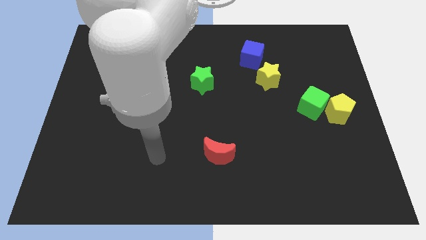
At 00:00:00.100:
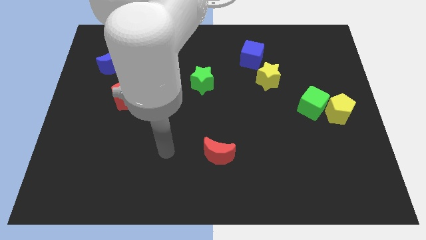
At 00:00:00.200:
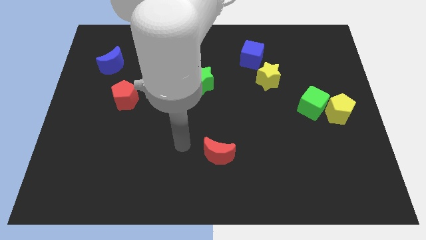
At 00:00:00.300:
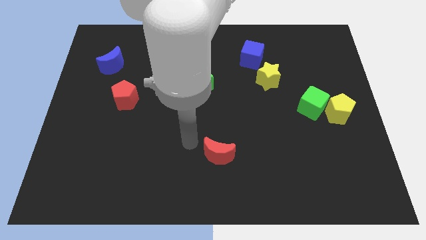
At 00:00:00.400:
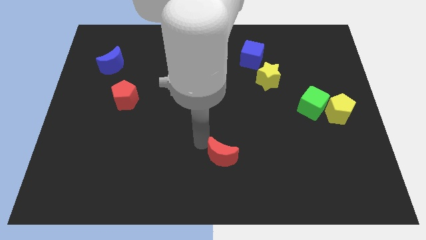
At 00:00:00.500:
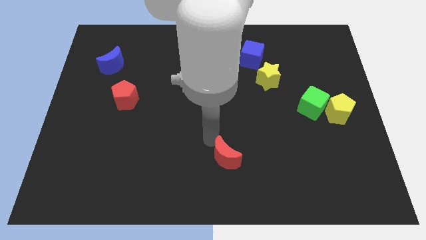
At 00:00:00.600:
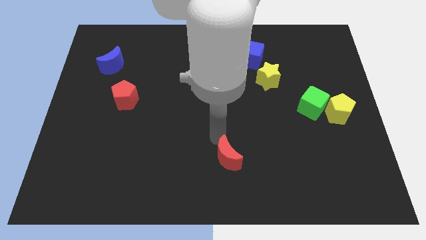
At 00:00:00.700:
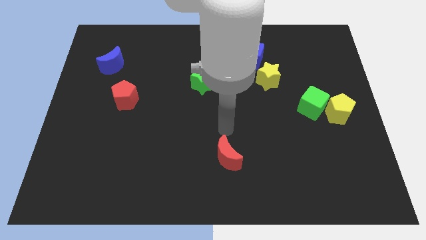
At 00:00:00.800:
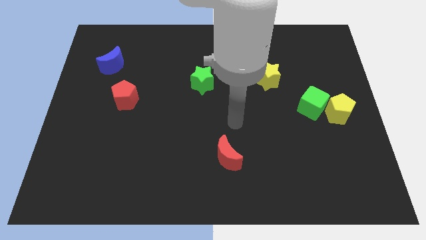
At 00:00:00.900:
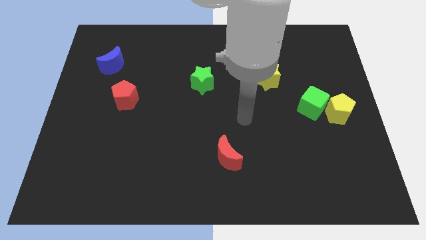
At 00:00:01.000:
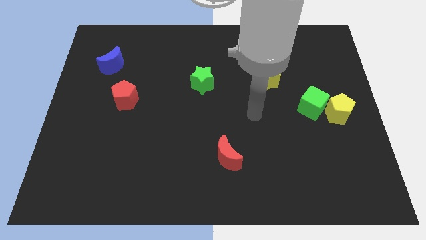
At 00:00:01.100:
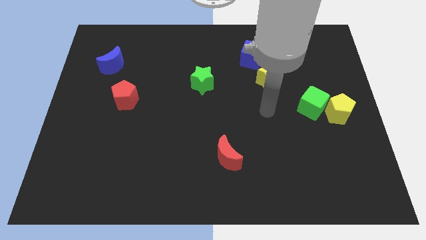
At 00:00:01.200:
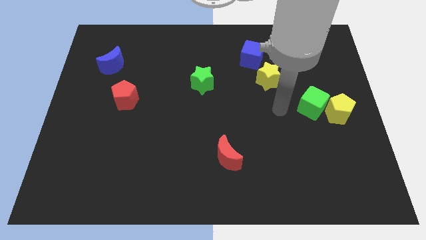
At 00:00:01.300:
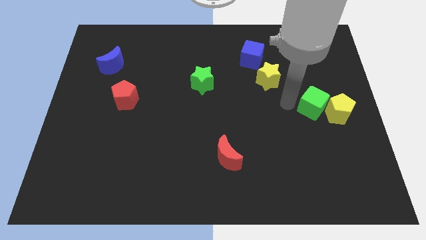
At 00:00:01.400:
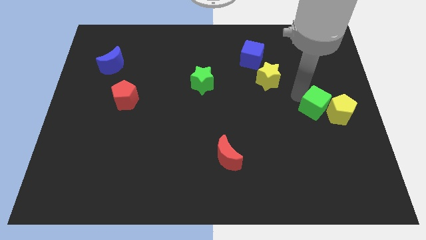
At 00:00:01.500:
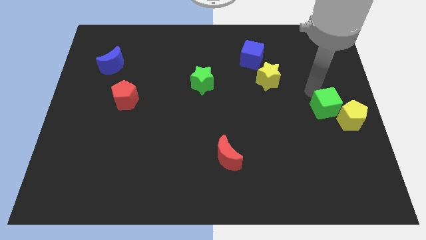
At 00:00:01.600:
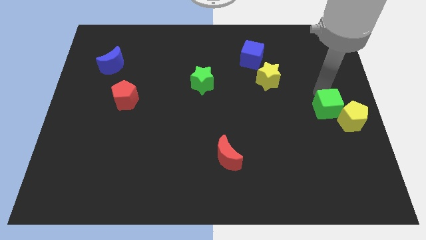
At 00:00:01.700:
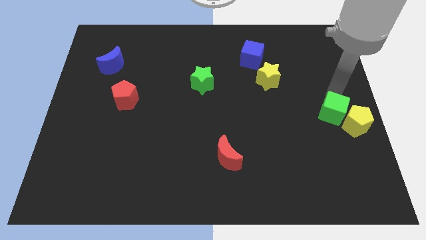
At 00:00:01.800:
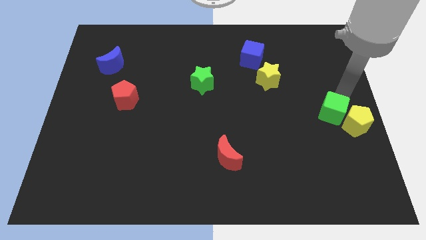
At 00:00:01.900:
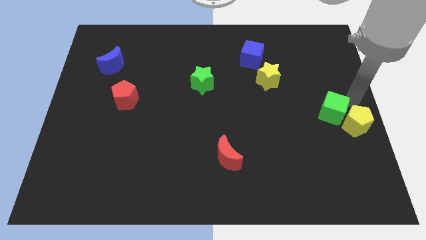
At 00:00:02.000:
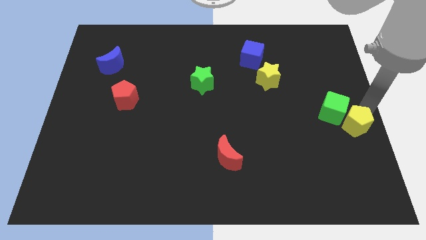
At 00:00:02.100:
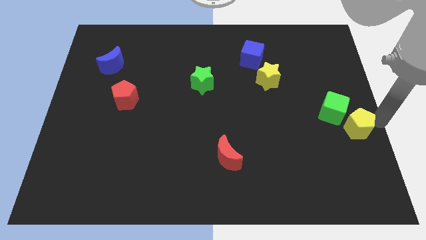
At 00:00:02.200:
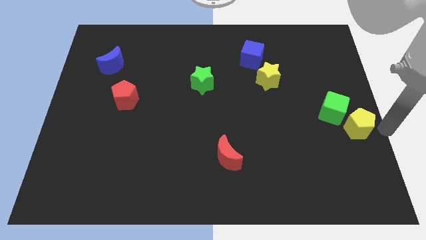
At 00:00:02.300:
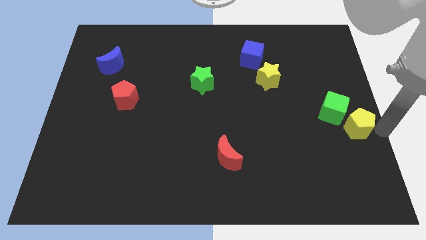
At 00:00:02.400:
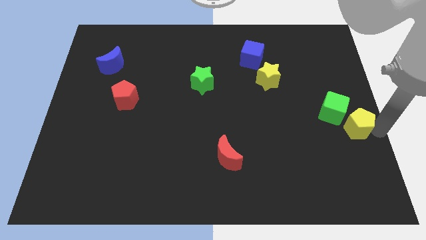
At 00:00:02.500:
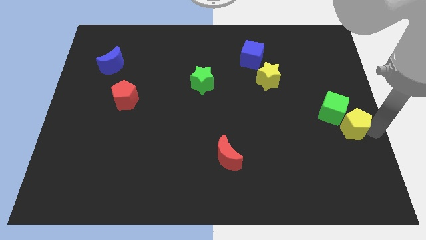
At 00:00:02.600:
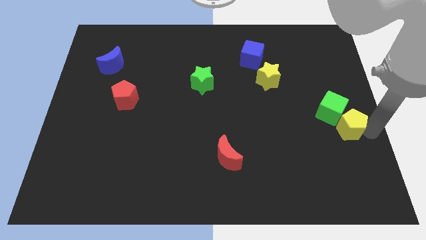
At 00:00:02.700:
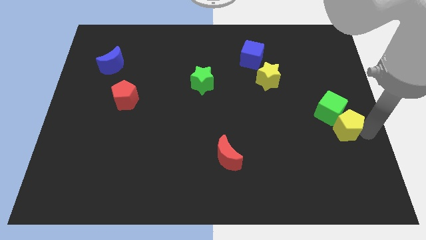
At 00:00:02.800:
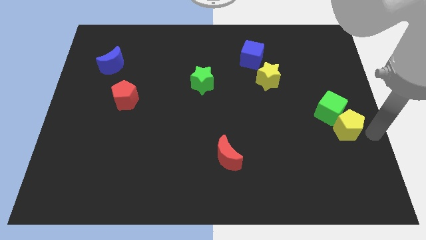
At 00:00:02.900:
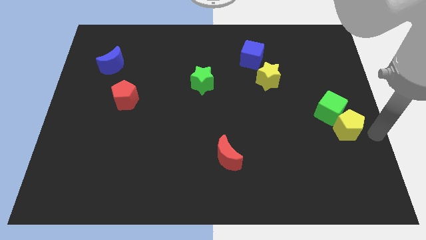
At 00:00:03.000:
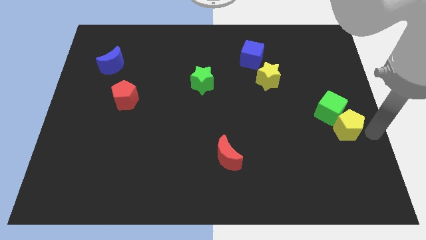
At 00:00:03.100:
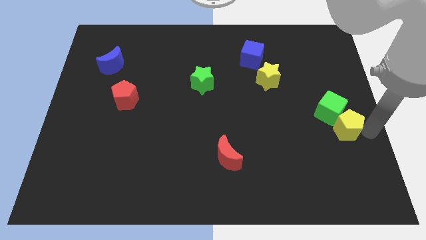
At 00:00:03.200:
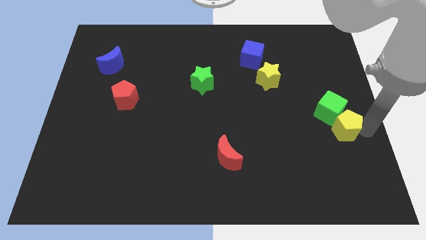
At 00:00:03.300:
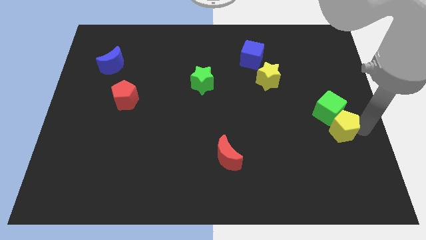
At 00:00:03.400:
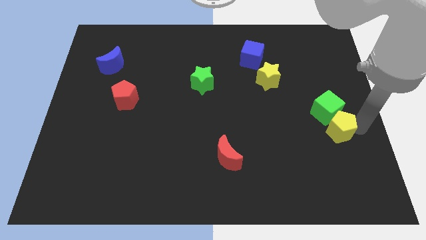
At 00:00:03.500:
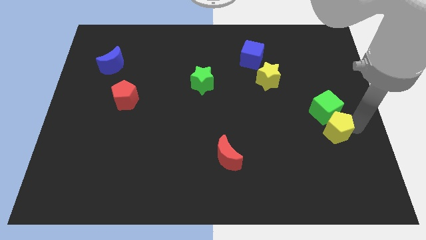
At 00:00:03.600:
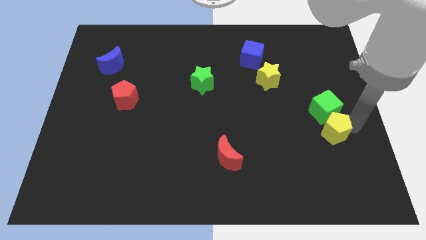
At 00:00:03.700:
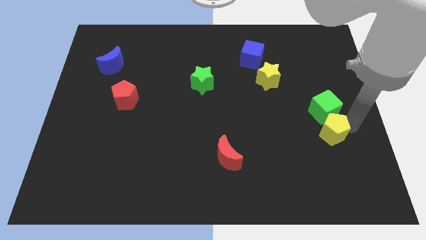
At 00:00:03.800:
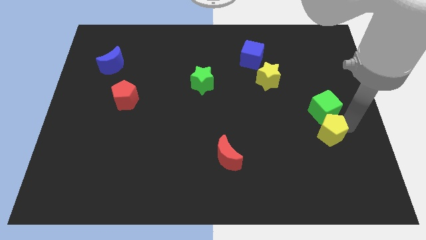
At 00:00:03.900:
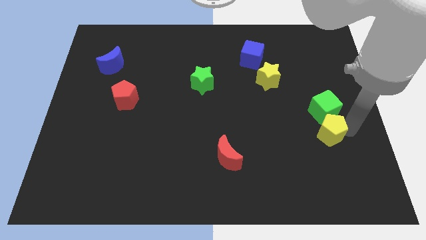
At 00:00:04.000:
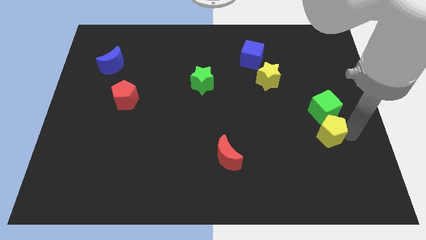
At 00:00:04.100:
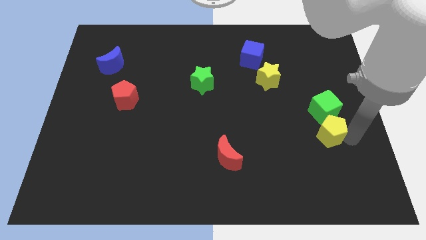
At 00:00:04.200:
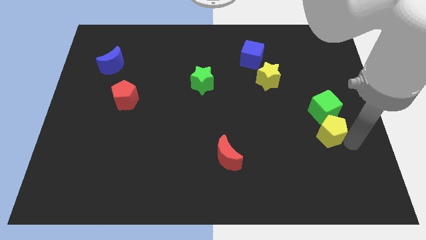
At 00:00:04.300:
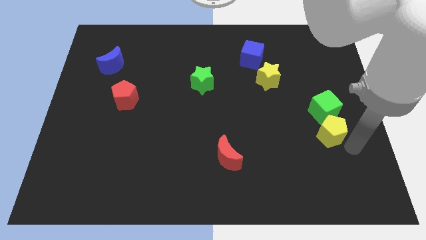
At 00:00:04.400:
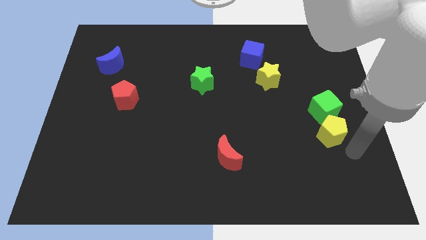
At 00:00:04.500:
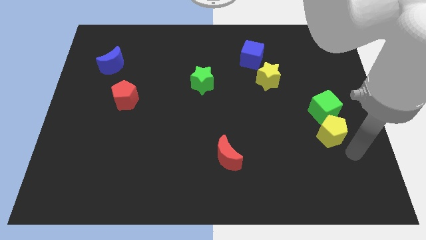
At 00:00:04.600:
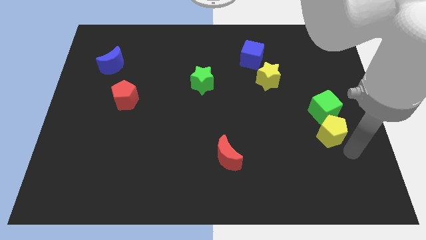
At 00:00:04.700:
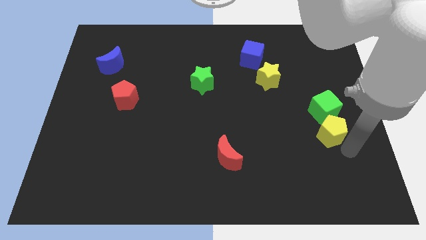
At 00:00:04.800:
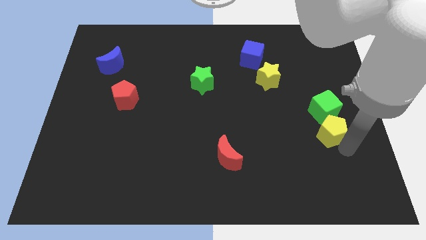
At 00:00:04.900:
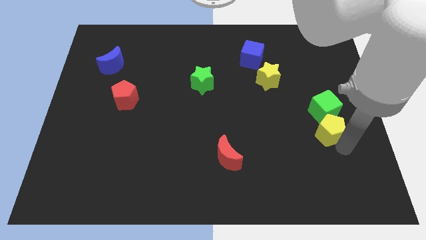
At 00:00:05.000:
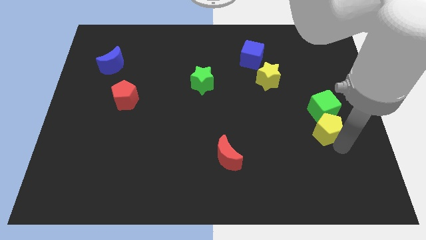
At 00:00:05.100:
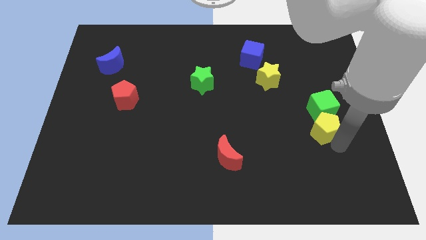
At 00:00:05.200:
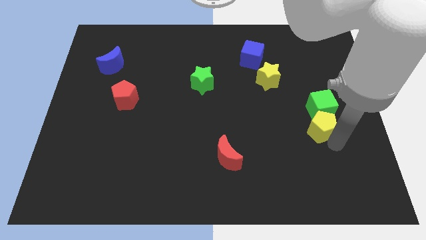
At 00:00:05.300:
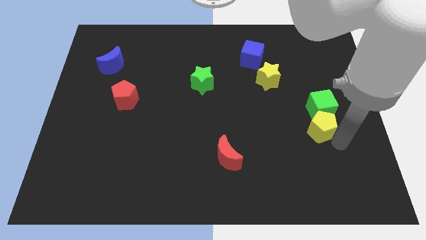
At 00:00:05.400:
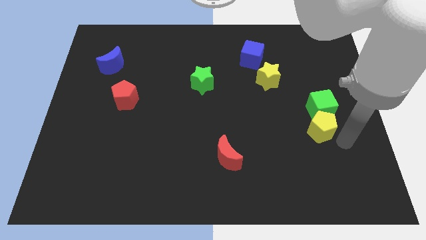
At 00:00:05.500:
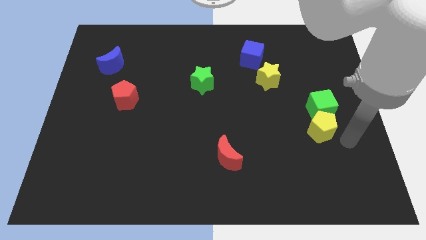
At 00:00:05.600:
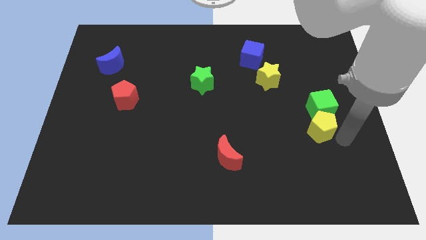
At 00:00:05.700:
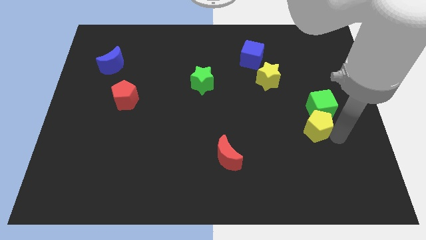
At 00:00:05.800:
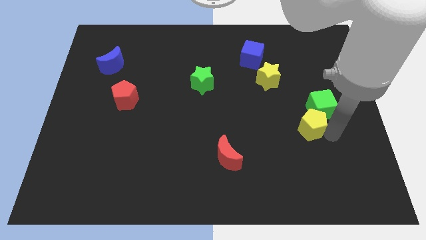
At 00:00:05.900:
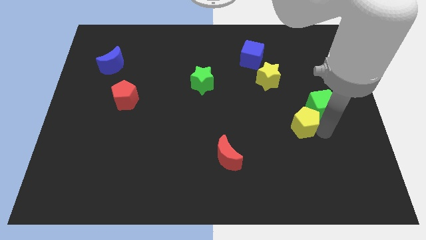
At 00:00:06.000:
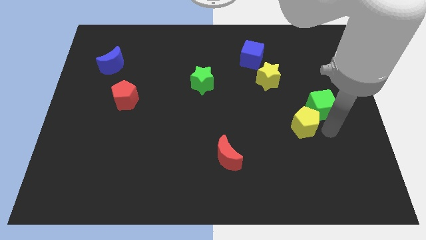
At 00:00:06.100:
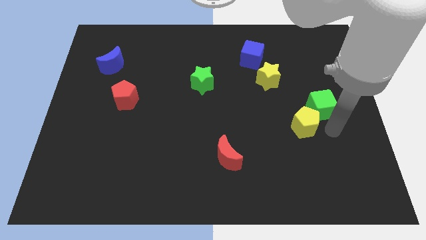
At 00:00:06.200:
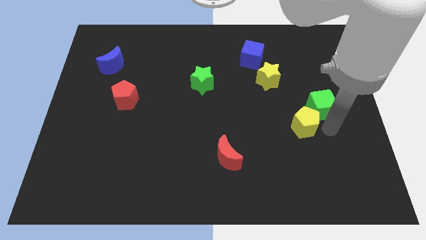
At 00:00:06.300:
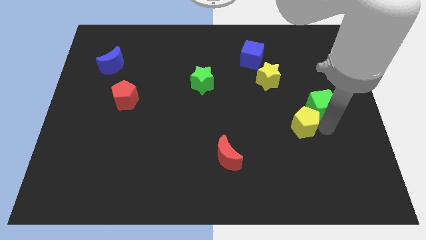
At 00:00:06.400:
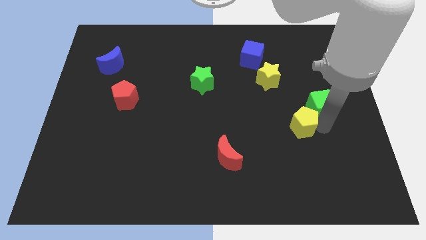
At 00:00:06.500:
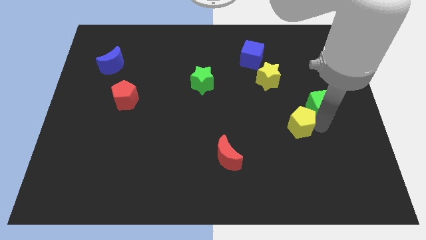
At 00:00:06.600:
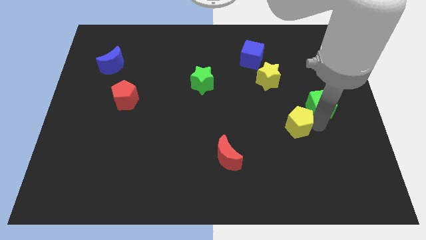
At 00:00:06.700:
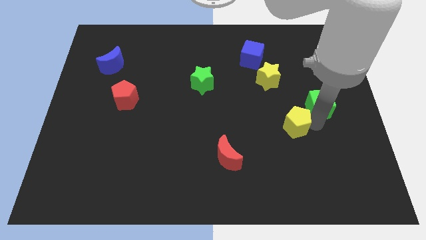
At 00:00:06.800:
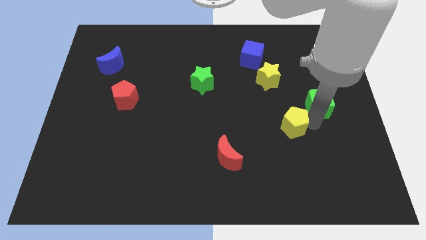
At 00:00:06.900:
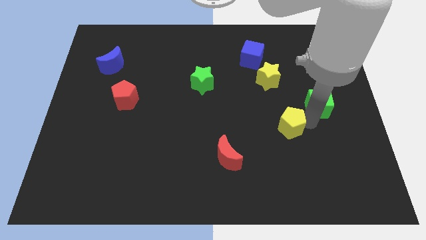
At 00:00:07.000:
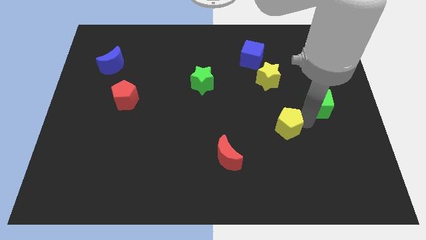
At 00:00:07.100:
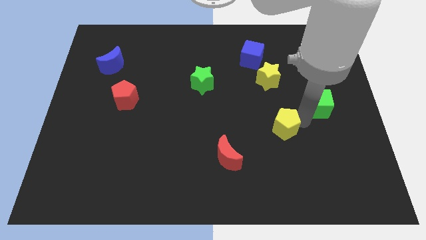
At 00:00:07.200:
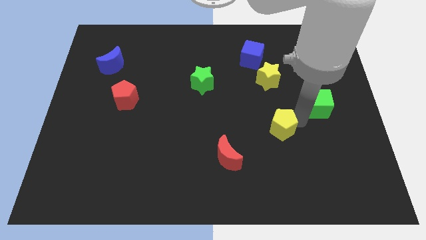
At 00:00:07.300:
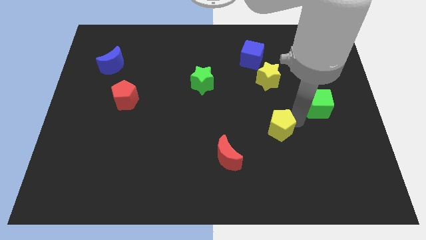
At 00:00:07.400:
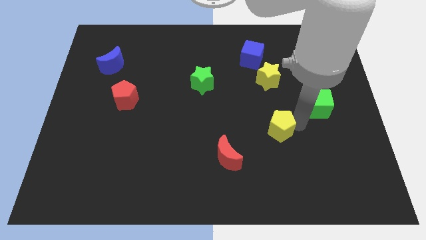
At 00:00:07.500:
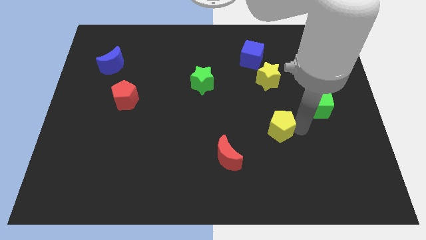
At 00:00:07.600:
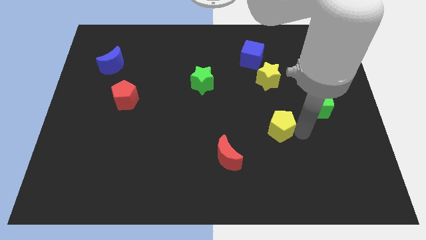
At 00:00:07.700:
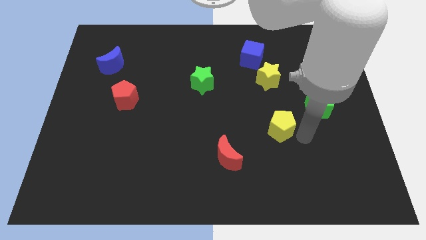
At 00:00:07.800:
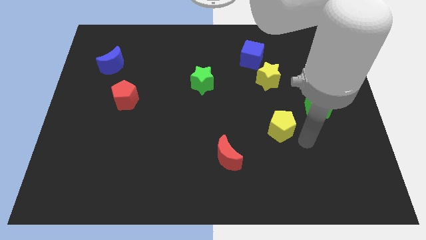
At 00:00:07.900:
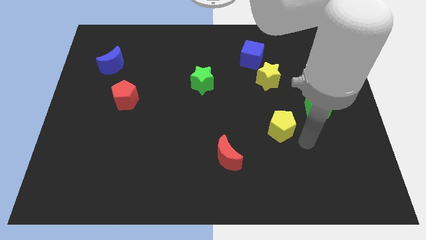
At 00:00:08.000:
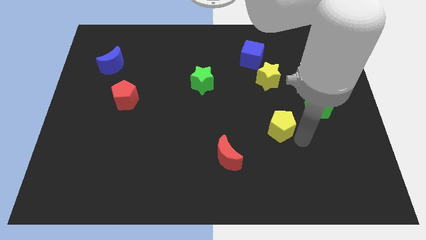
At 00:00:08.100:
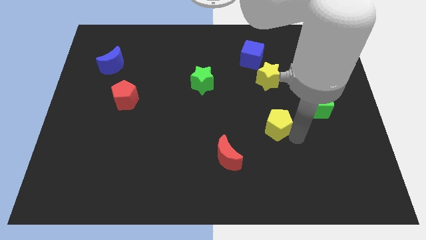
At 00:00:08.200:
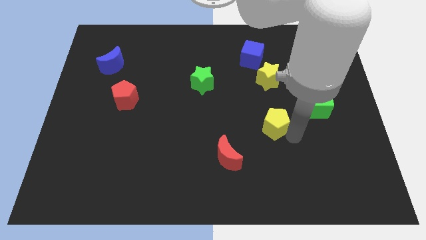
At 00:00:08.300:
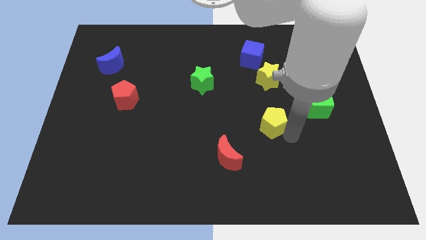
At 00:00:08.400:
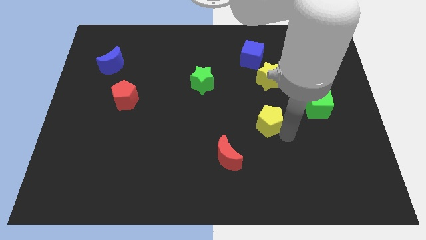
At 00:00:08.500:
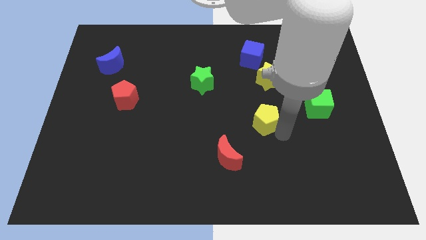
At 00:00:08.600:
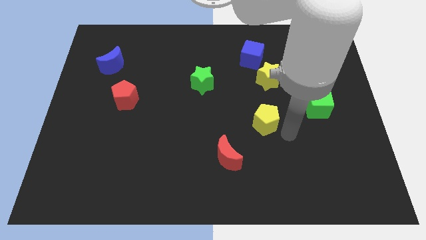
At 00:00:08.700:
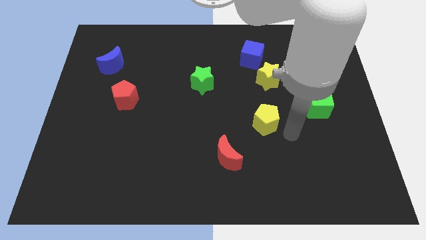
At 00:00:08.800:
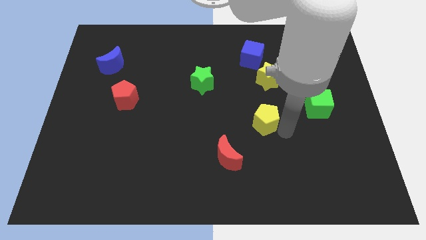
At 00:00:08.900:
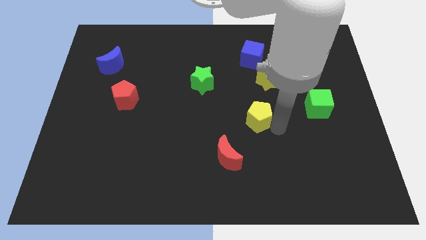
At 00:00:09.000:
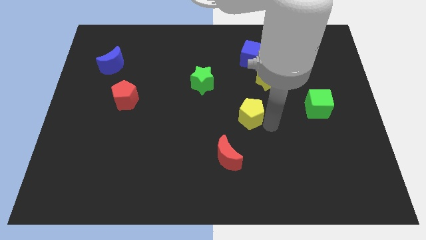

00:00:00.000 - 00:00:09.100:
move the yellow pentagon left
